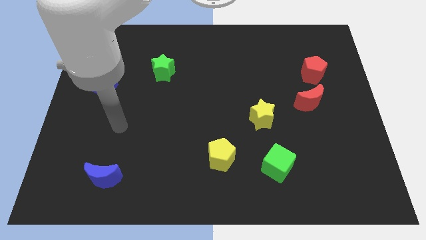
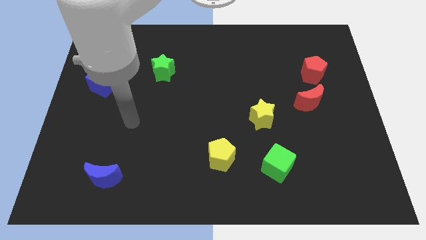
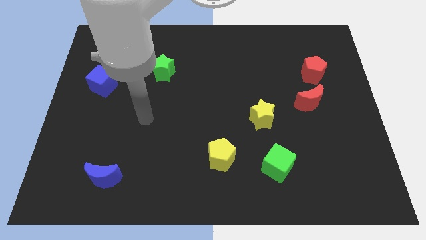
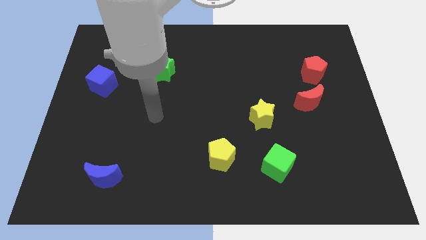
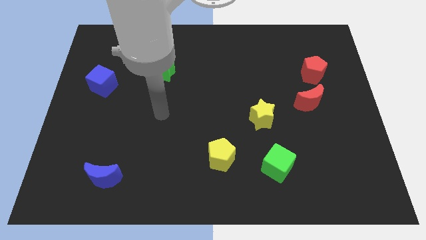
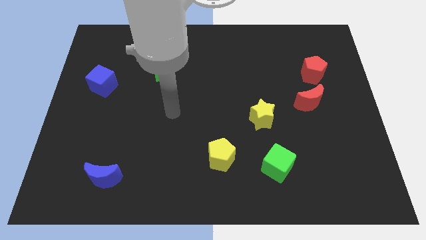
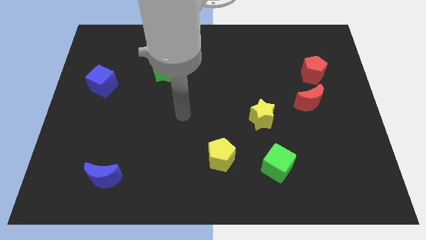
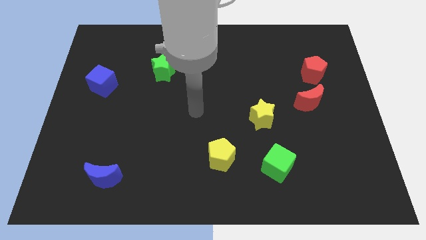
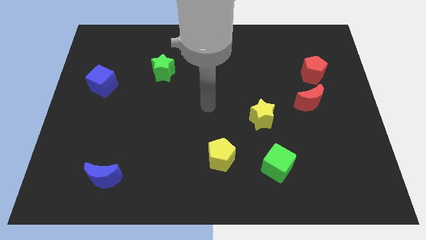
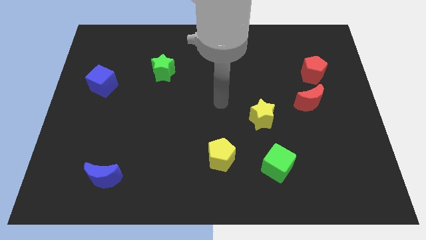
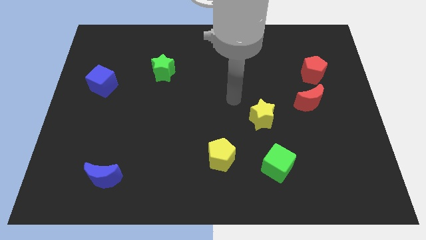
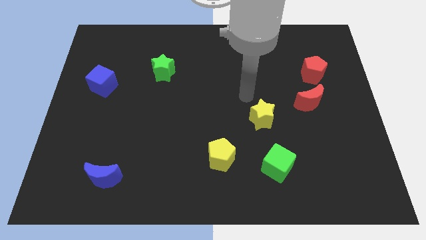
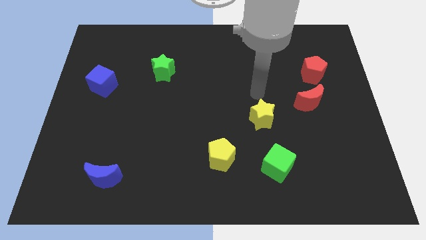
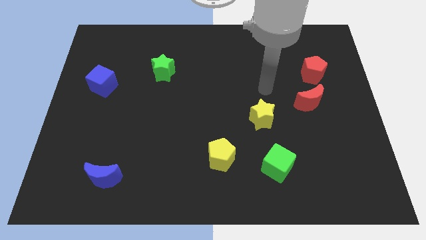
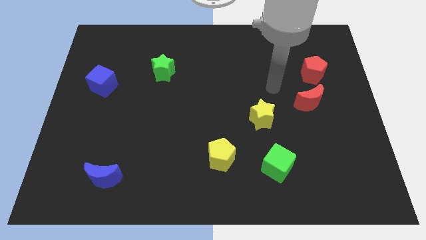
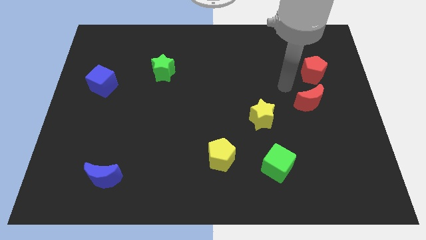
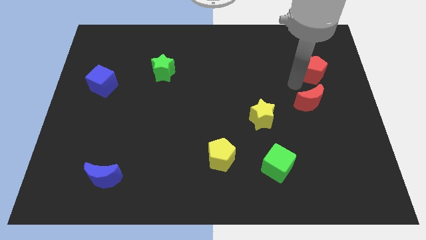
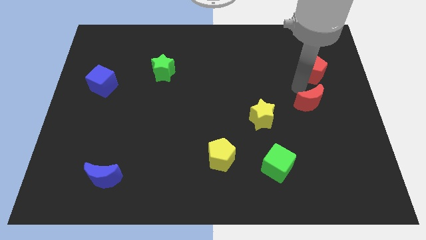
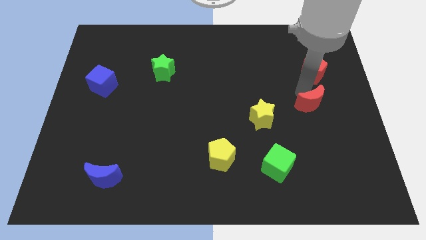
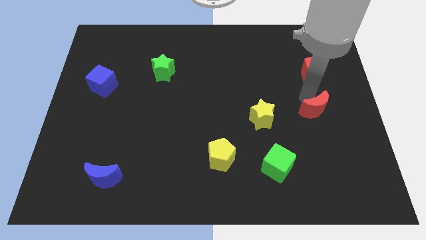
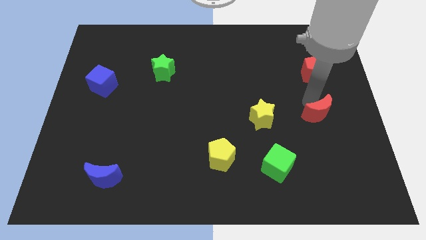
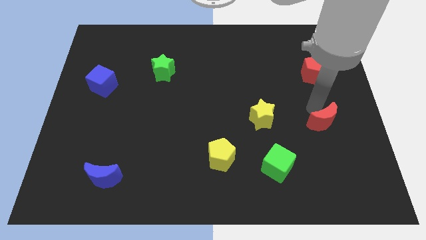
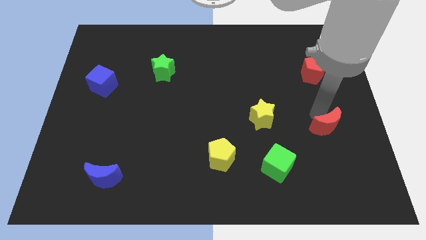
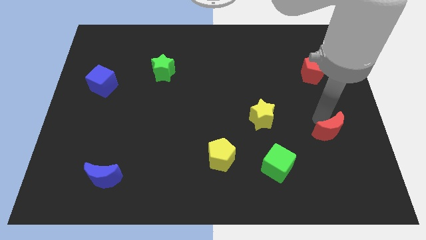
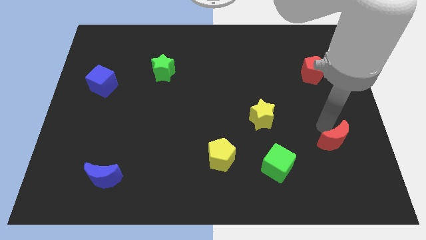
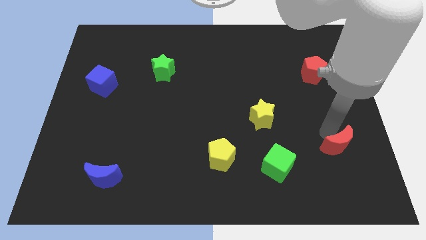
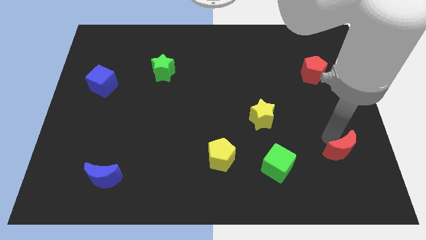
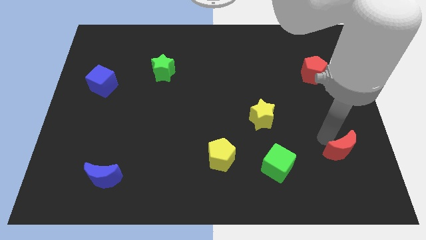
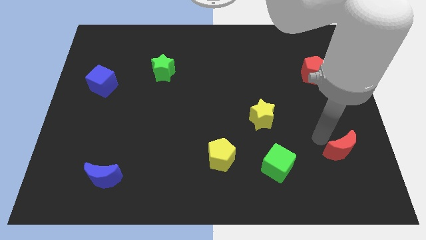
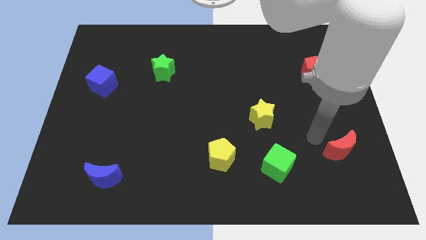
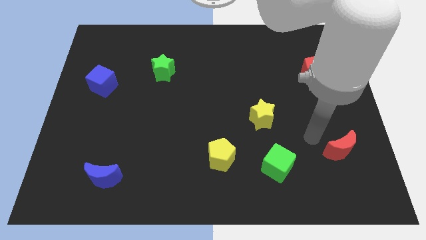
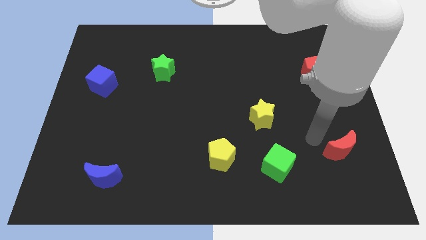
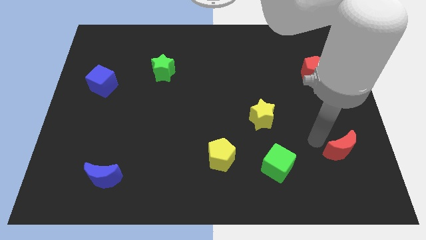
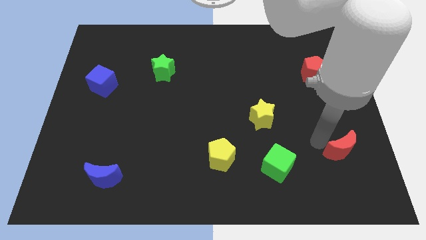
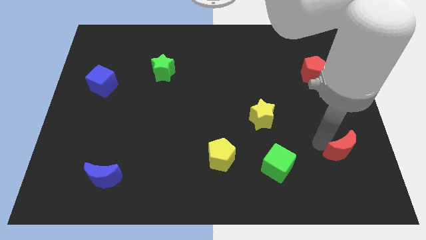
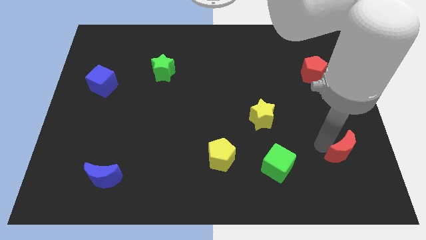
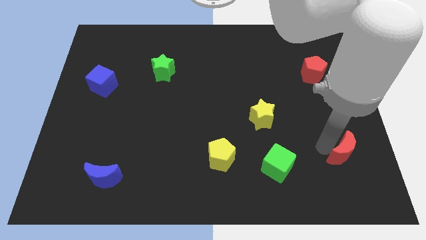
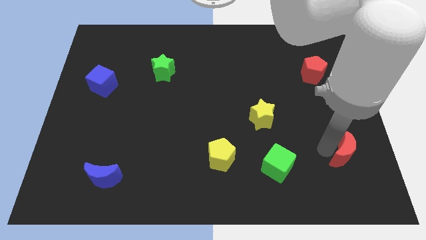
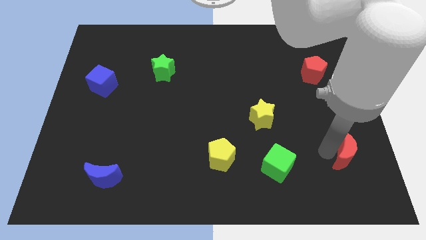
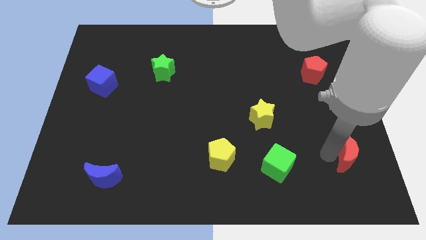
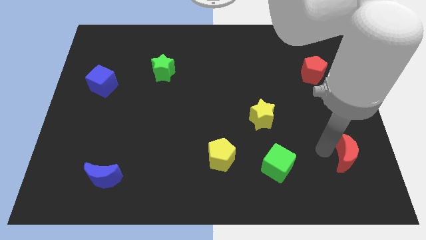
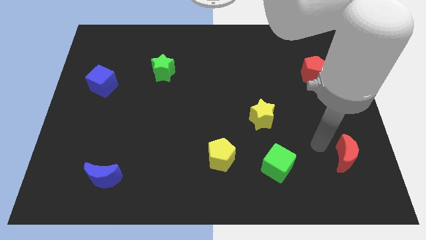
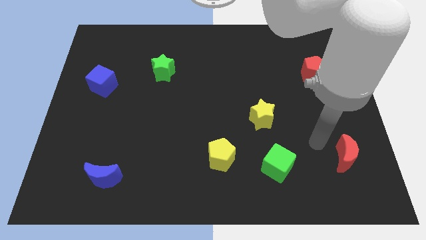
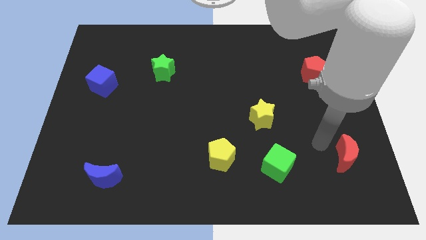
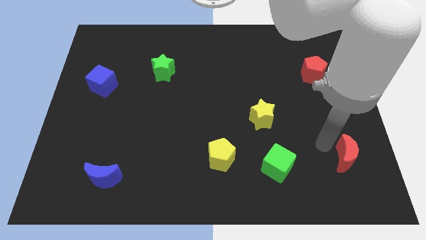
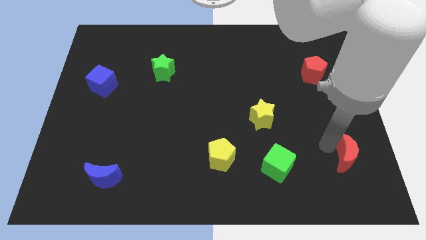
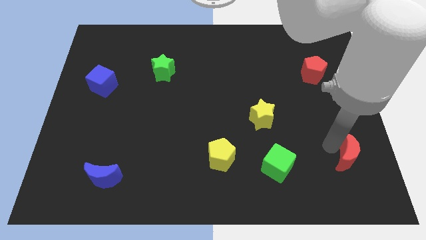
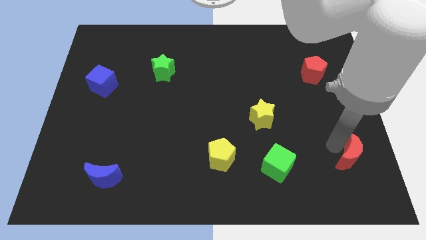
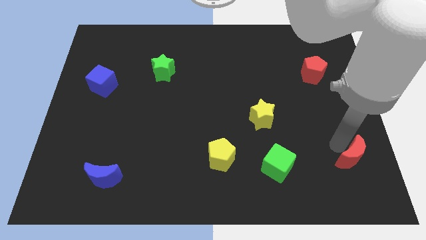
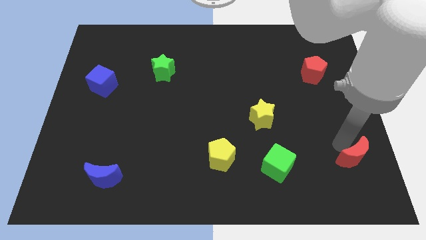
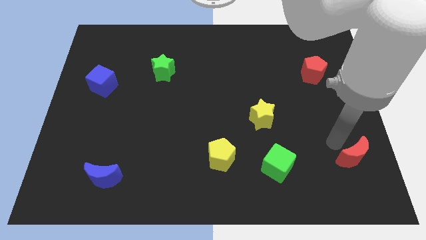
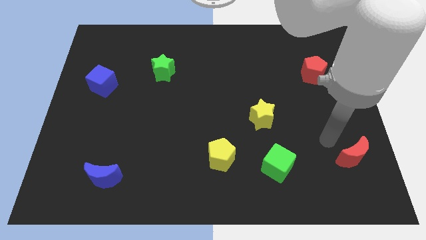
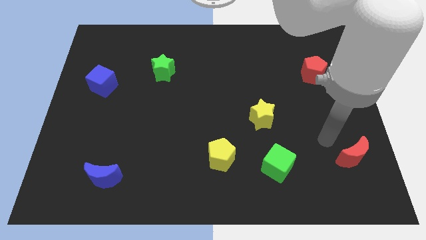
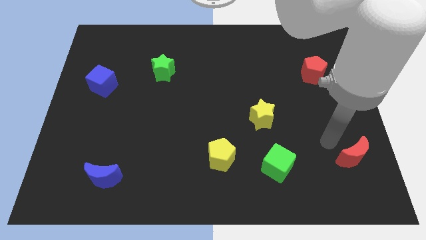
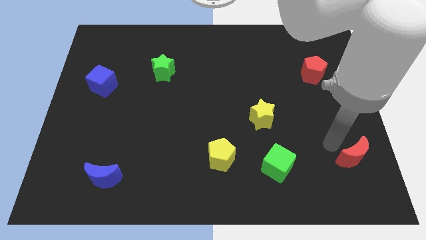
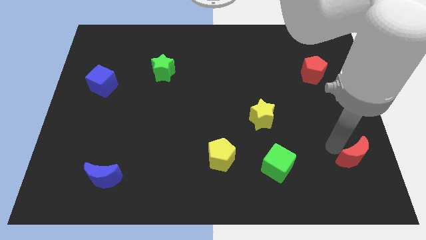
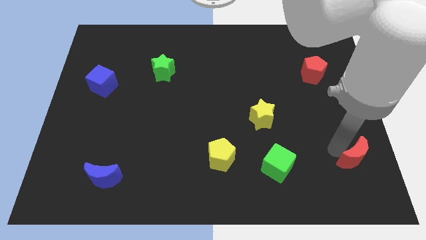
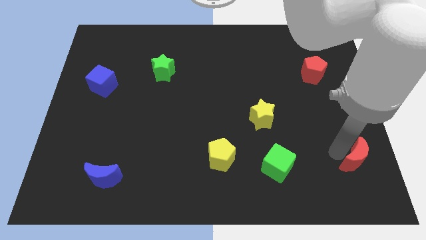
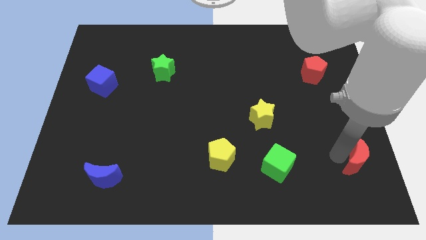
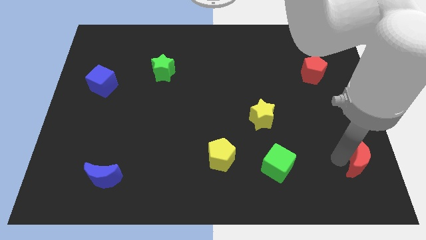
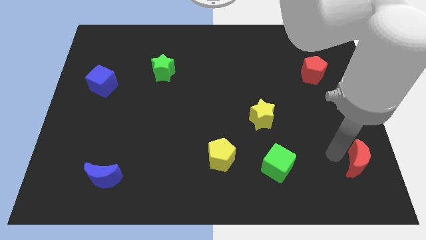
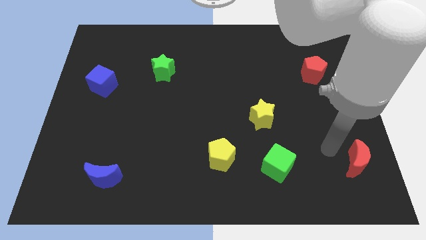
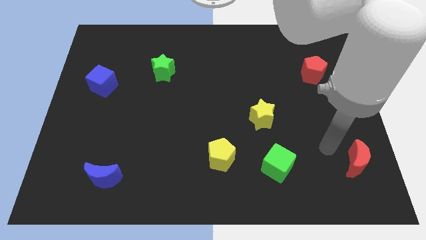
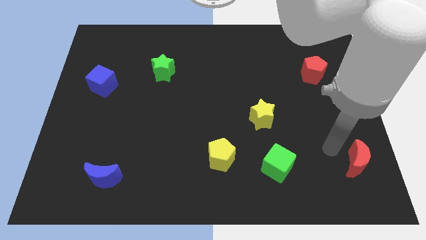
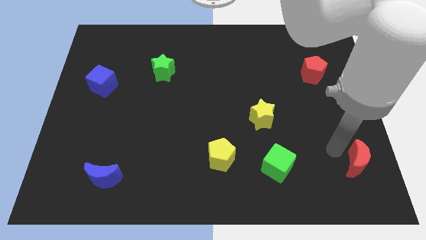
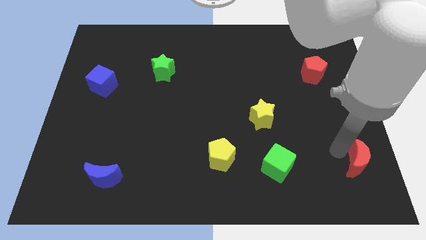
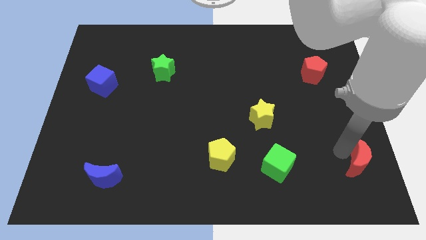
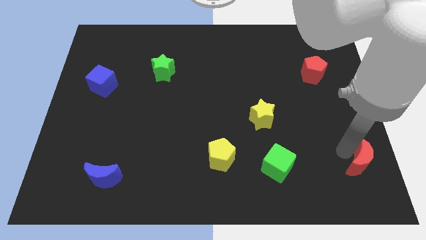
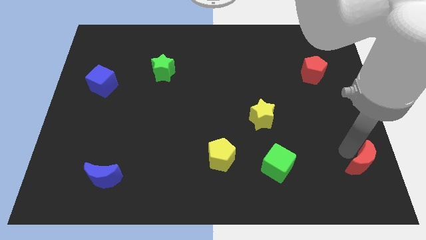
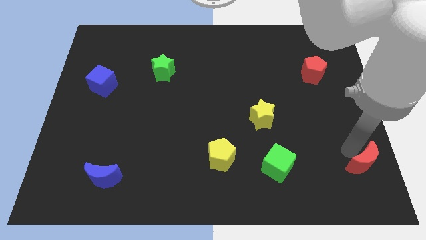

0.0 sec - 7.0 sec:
push the red moon to the bottom right
